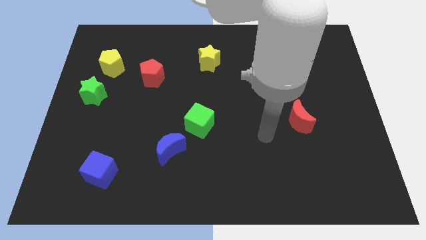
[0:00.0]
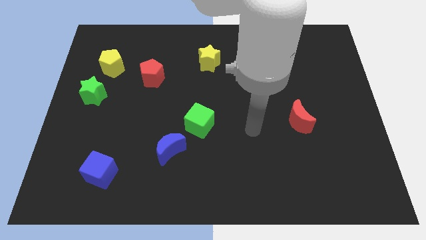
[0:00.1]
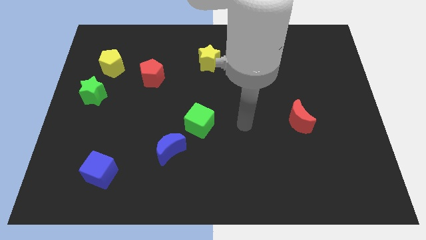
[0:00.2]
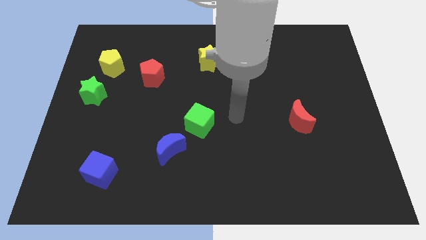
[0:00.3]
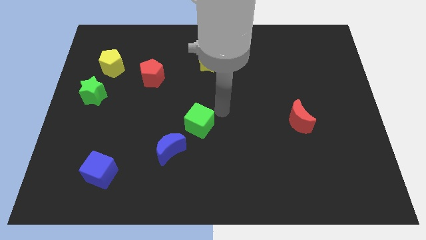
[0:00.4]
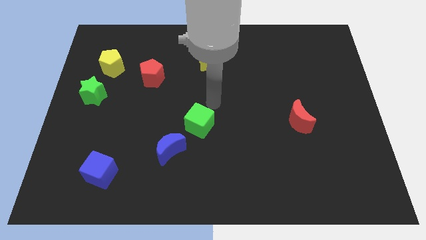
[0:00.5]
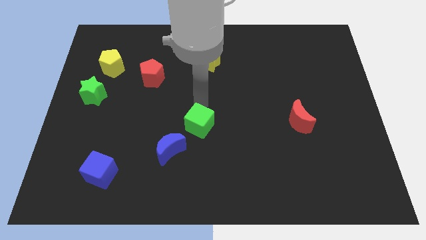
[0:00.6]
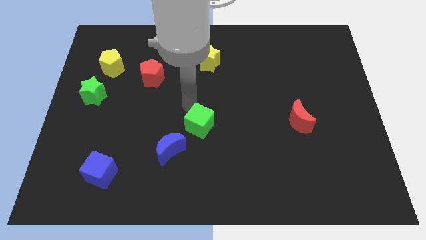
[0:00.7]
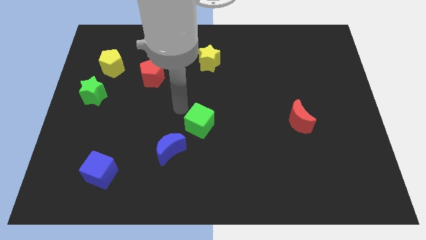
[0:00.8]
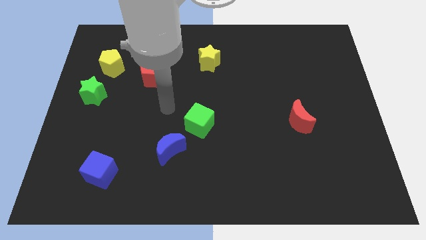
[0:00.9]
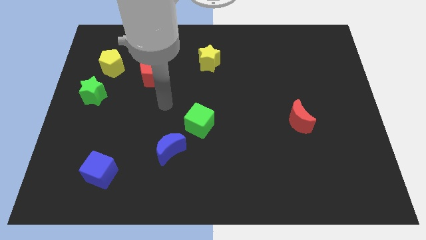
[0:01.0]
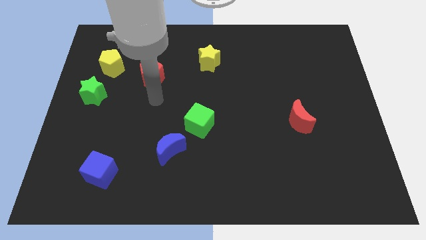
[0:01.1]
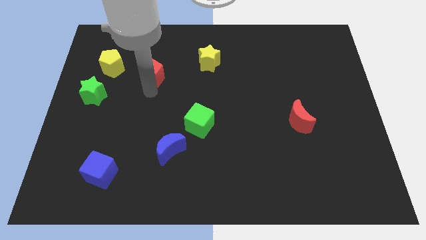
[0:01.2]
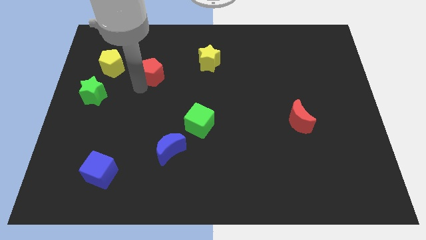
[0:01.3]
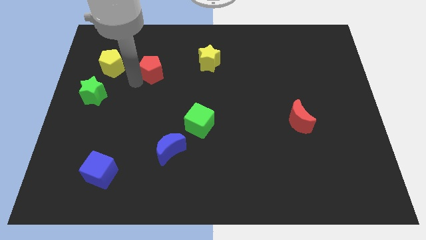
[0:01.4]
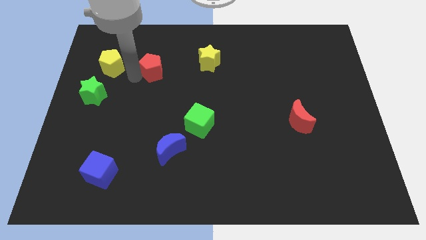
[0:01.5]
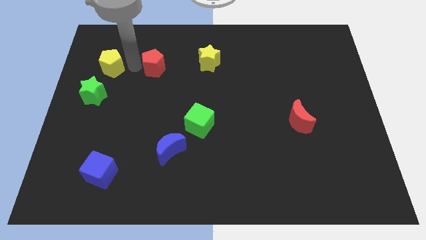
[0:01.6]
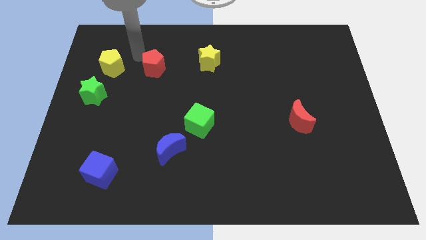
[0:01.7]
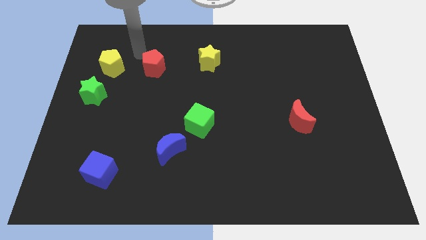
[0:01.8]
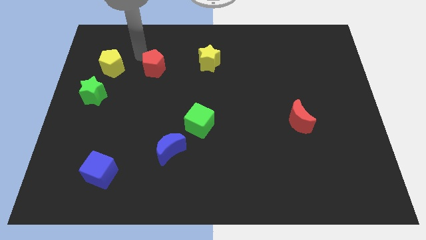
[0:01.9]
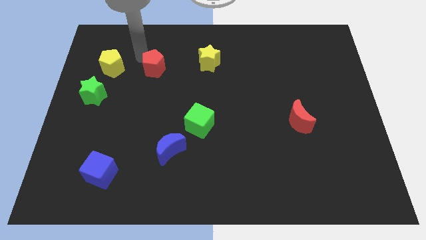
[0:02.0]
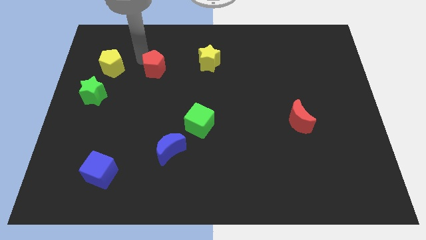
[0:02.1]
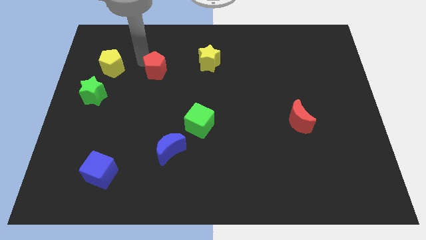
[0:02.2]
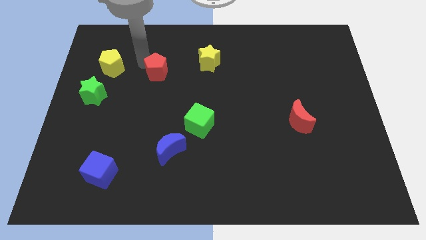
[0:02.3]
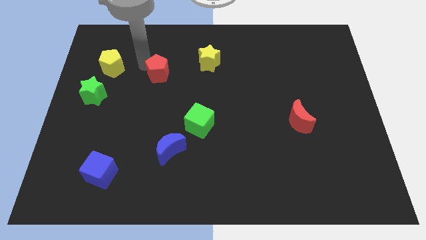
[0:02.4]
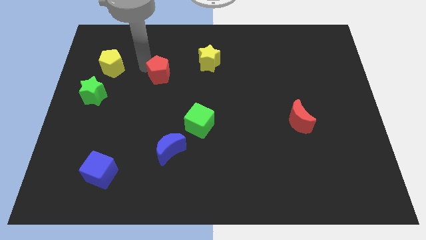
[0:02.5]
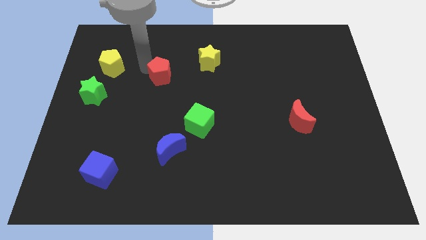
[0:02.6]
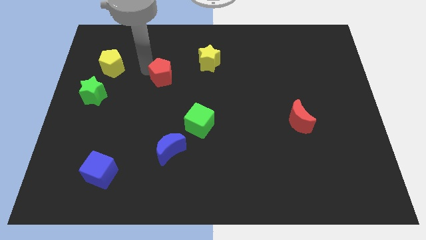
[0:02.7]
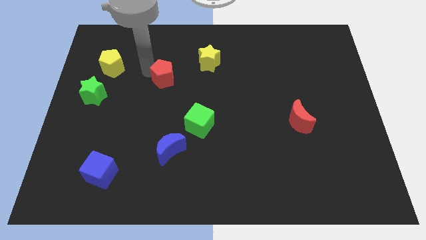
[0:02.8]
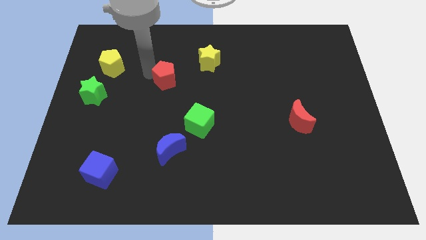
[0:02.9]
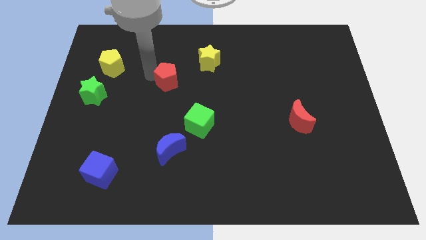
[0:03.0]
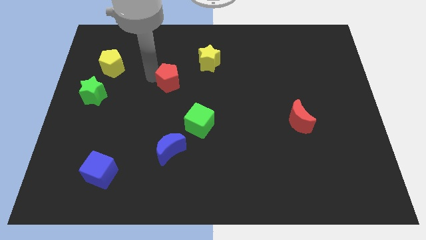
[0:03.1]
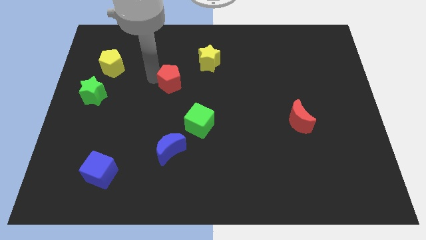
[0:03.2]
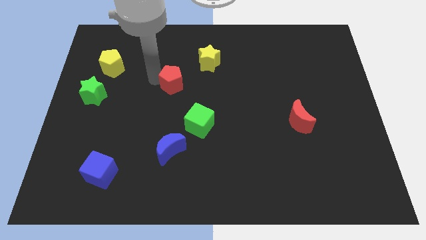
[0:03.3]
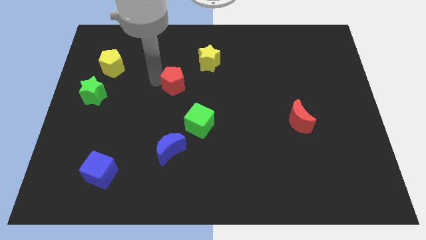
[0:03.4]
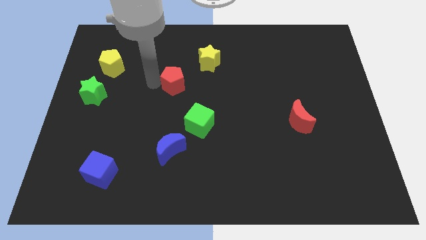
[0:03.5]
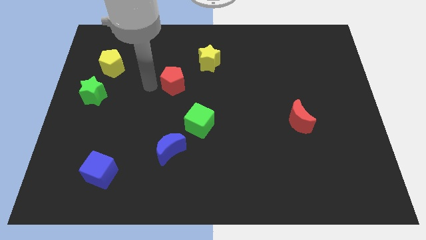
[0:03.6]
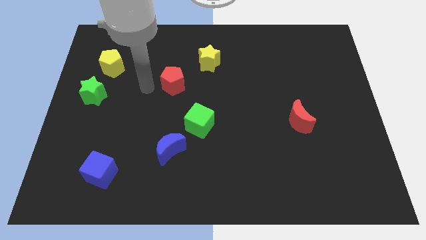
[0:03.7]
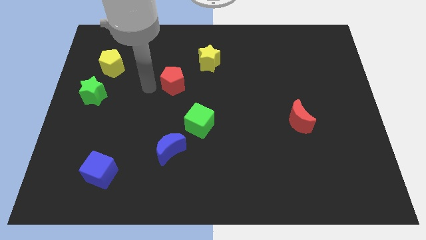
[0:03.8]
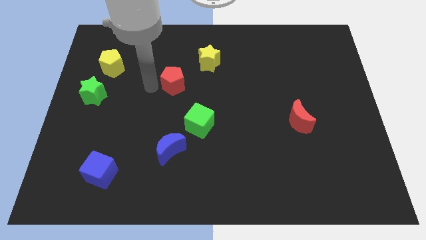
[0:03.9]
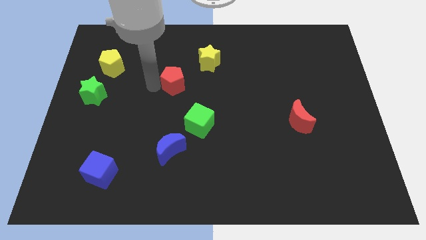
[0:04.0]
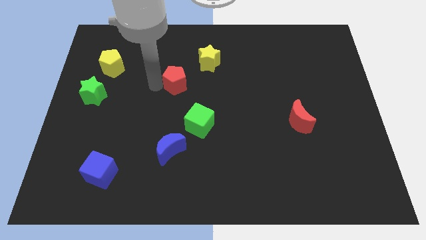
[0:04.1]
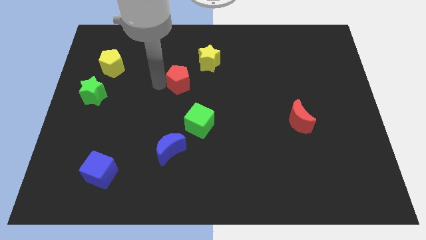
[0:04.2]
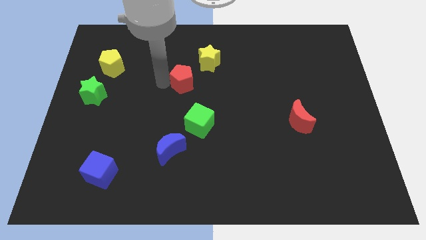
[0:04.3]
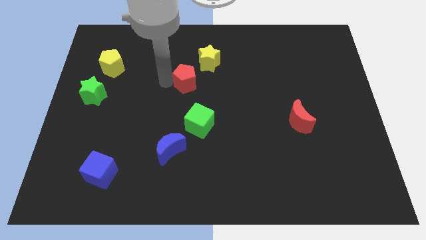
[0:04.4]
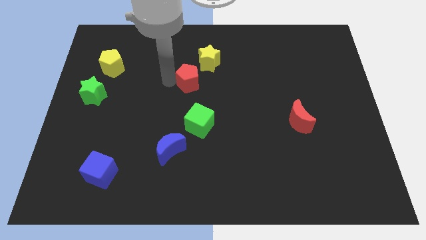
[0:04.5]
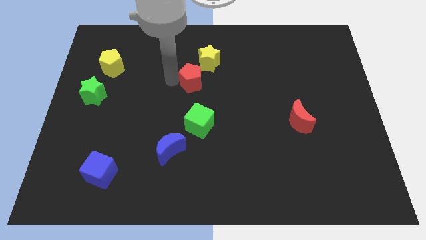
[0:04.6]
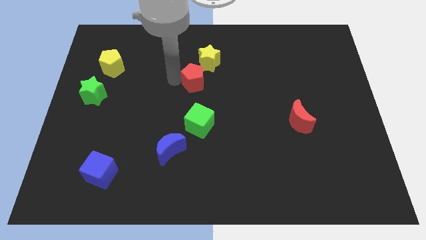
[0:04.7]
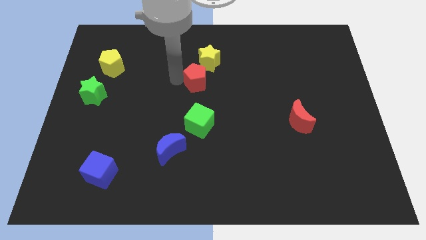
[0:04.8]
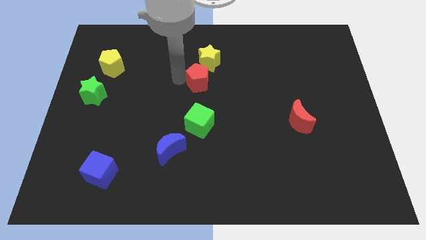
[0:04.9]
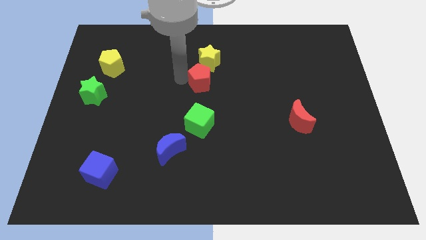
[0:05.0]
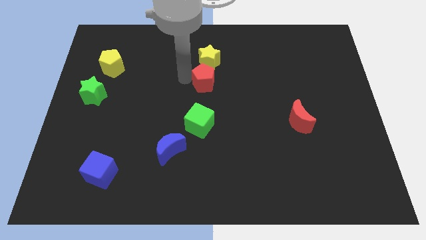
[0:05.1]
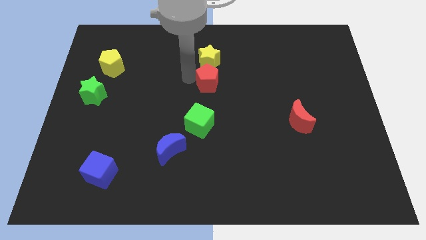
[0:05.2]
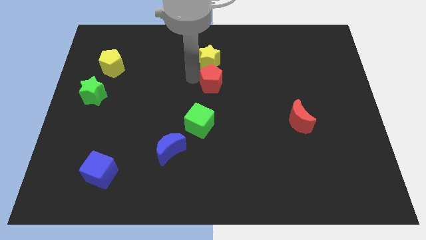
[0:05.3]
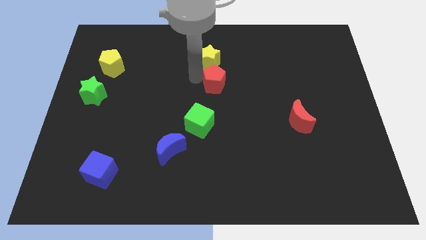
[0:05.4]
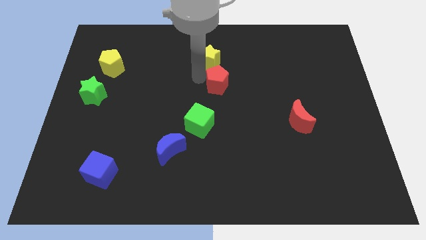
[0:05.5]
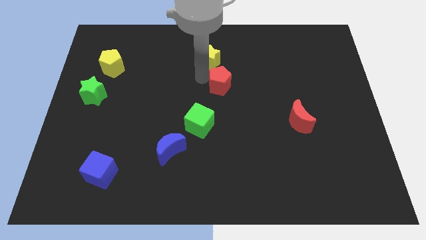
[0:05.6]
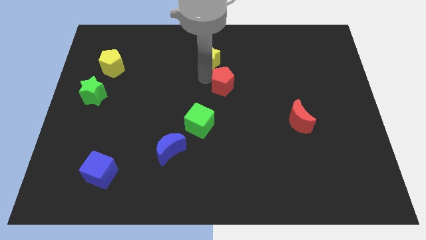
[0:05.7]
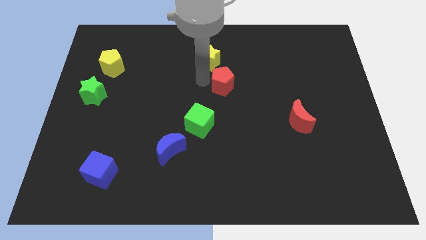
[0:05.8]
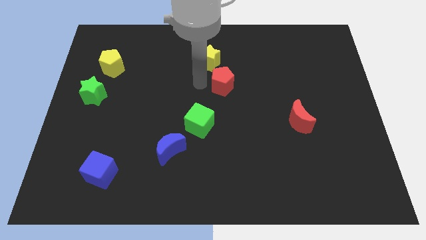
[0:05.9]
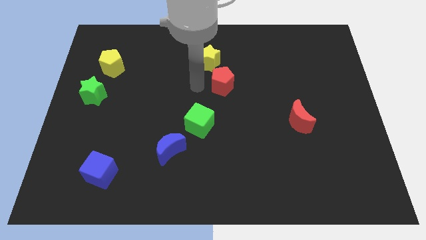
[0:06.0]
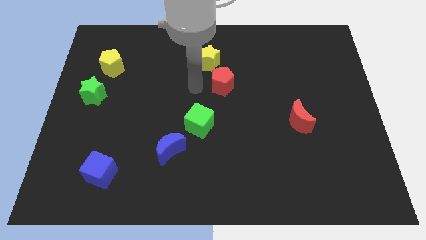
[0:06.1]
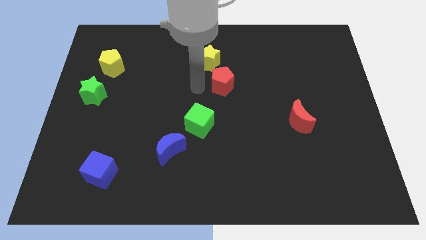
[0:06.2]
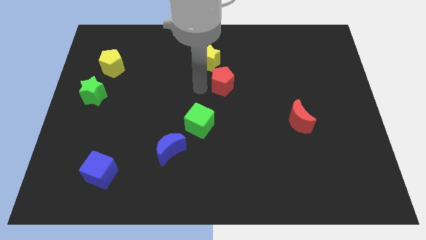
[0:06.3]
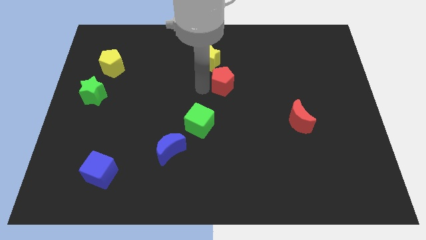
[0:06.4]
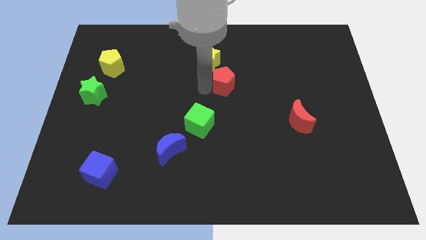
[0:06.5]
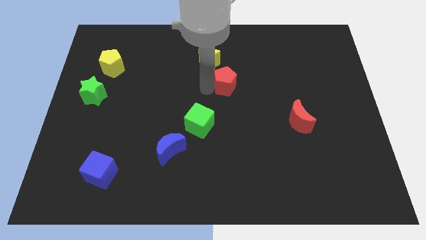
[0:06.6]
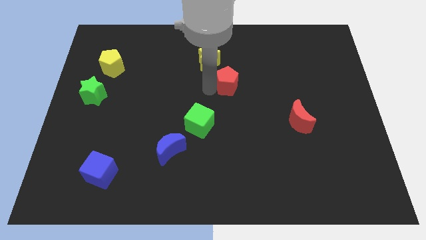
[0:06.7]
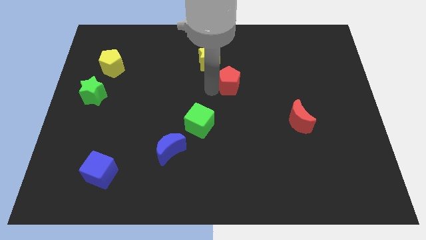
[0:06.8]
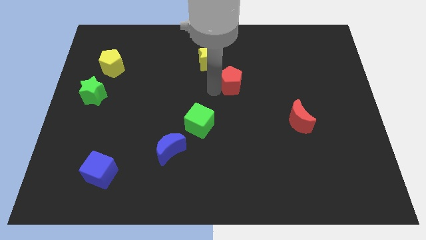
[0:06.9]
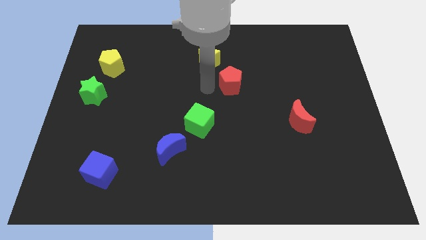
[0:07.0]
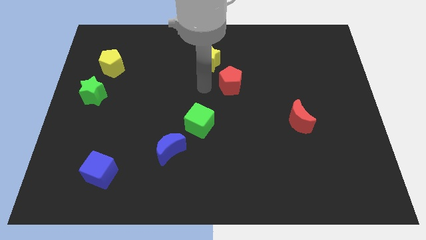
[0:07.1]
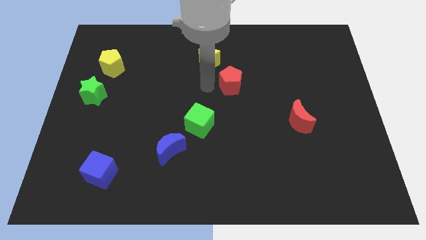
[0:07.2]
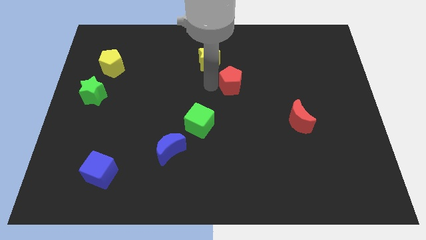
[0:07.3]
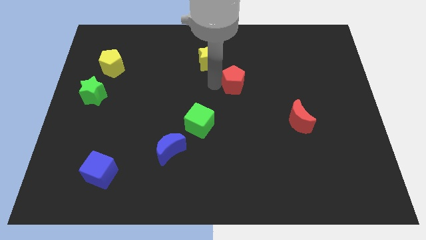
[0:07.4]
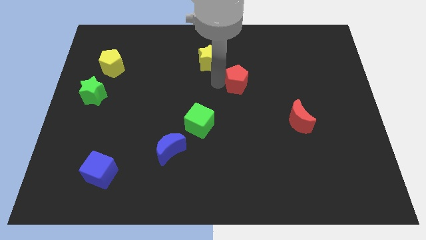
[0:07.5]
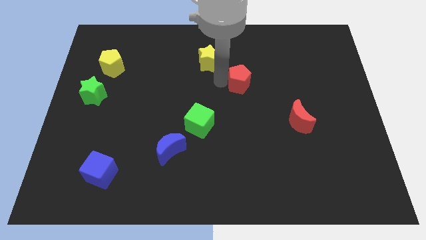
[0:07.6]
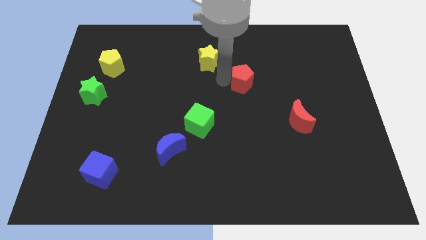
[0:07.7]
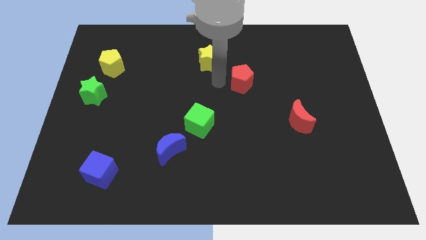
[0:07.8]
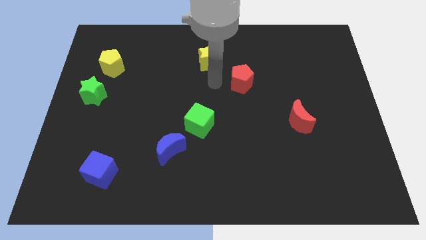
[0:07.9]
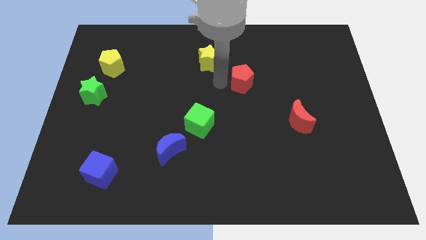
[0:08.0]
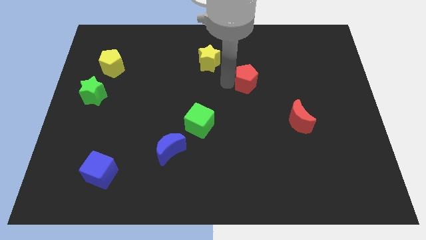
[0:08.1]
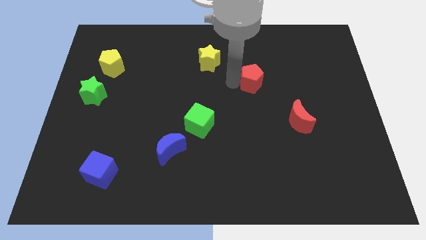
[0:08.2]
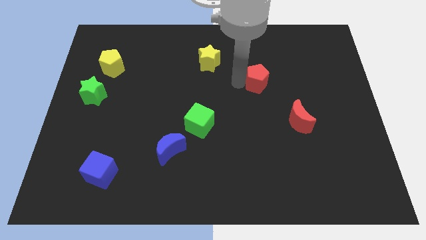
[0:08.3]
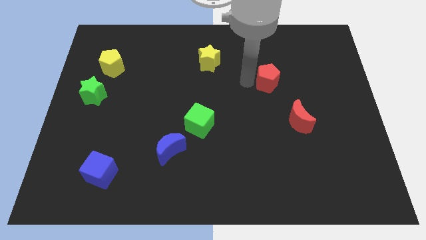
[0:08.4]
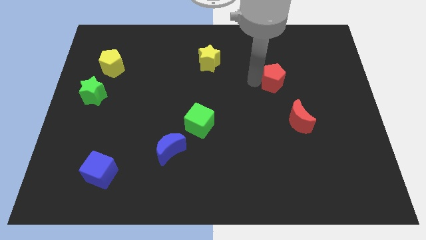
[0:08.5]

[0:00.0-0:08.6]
put the red pentagon to the top side of the red moon
